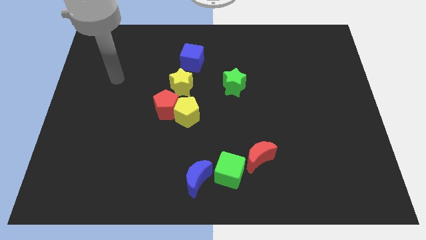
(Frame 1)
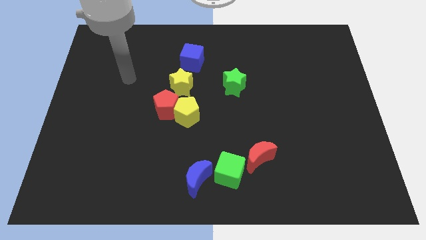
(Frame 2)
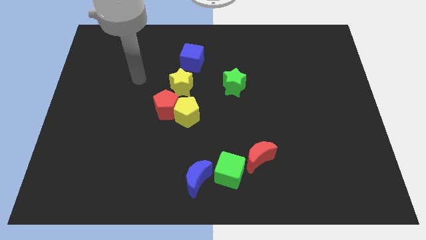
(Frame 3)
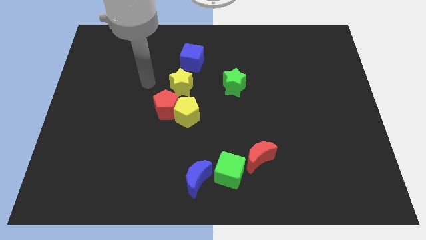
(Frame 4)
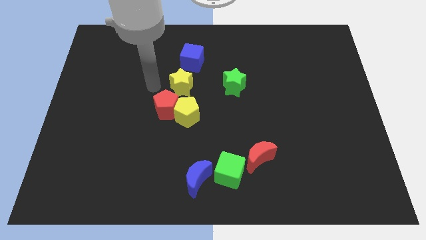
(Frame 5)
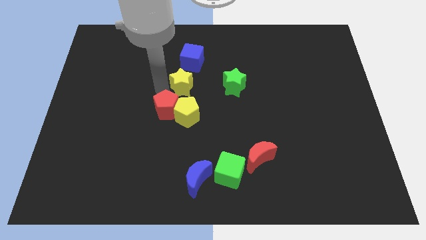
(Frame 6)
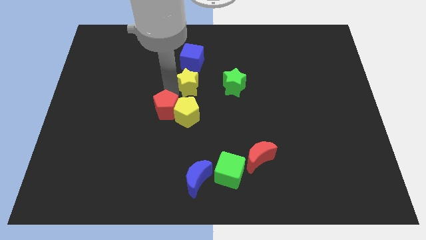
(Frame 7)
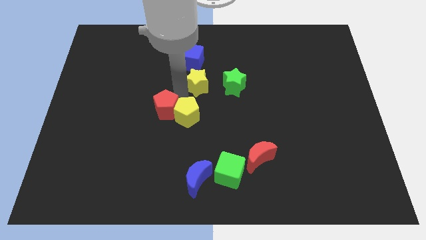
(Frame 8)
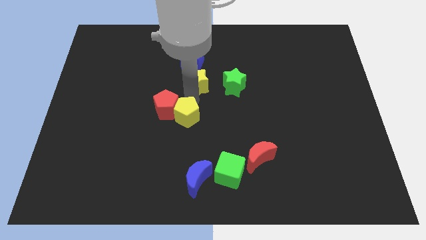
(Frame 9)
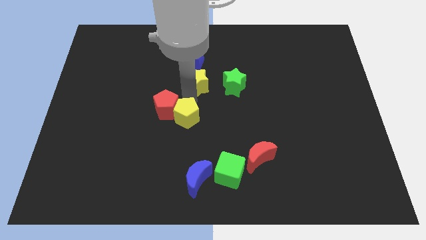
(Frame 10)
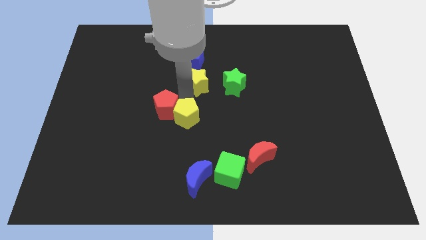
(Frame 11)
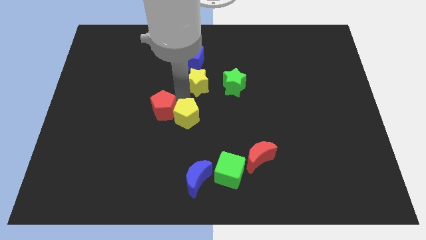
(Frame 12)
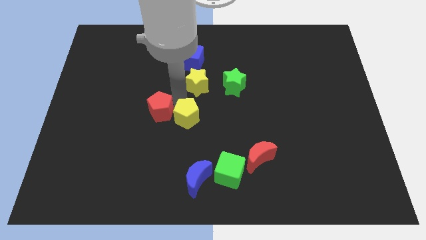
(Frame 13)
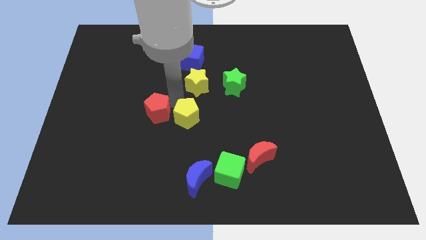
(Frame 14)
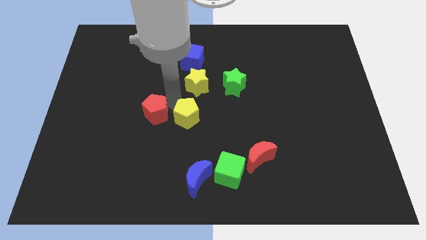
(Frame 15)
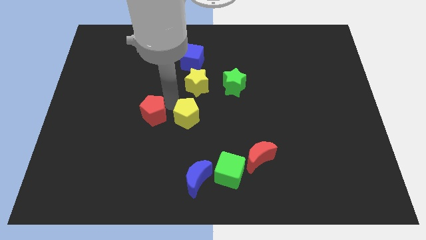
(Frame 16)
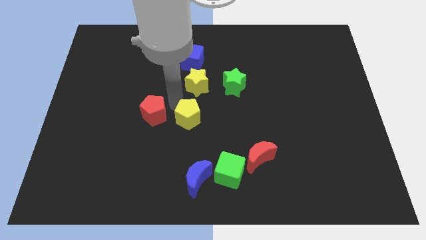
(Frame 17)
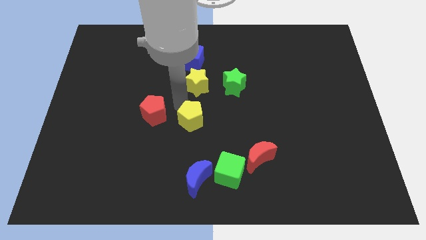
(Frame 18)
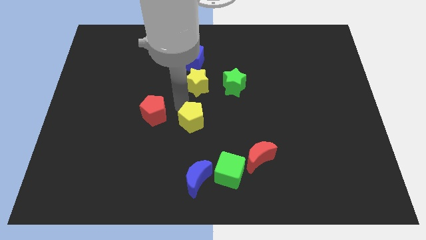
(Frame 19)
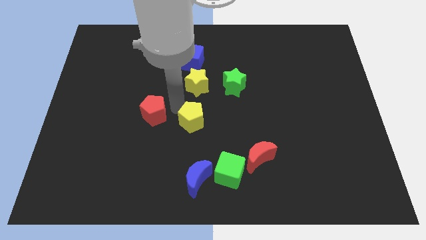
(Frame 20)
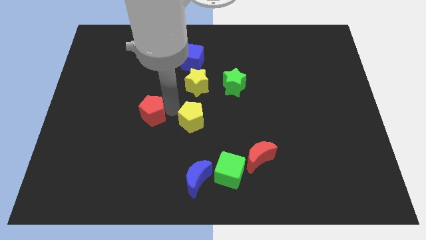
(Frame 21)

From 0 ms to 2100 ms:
pull the red pentagon apart from the yellow pentagon and yellow star

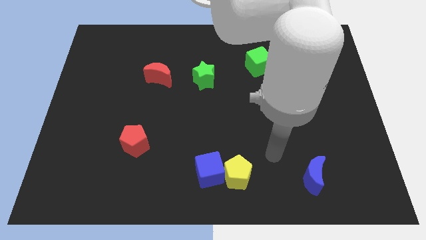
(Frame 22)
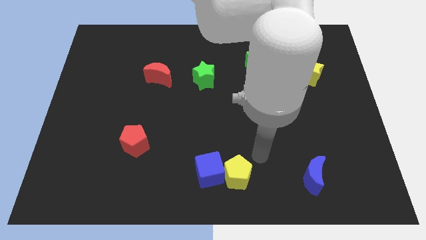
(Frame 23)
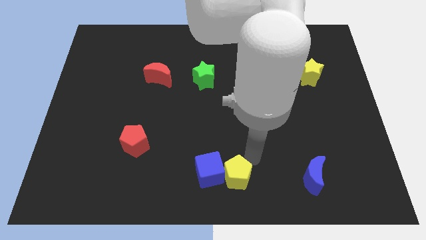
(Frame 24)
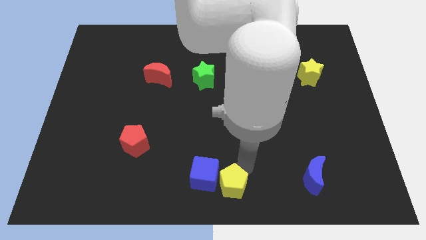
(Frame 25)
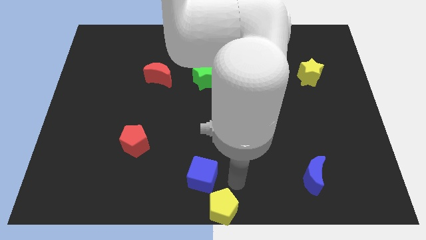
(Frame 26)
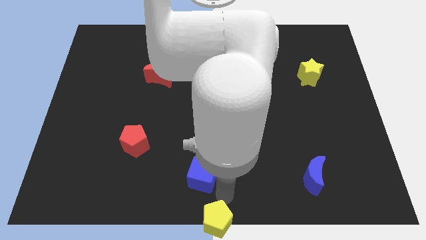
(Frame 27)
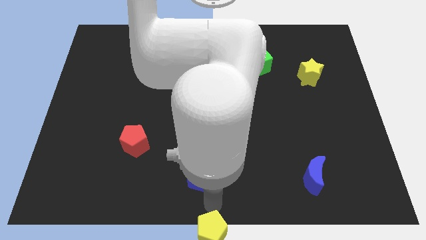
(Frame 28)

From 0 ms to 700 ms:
move the blue cube away from the yellow pentagon

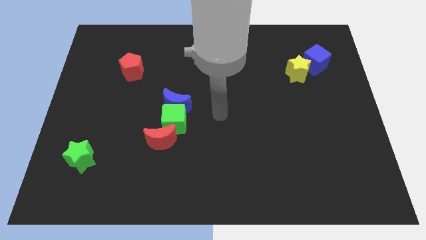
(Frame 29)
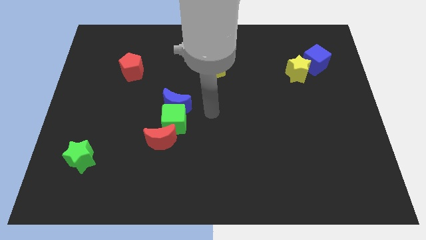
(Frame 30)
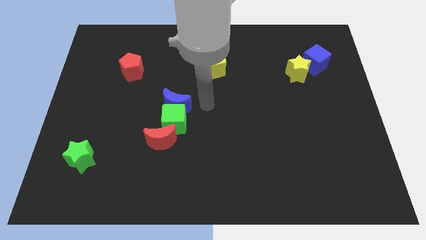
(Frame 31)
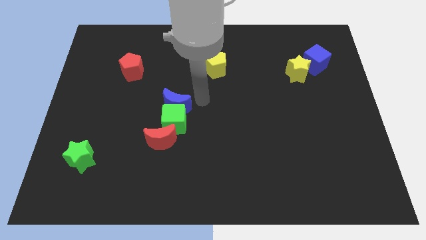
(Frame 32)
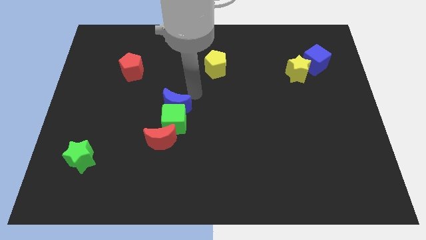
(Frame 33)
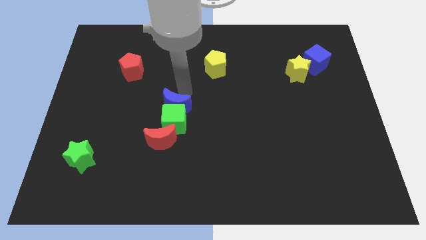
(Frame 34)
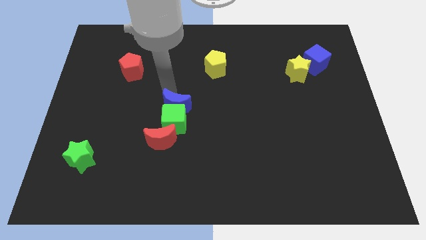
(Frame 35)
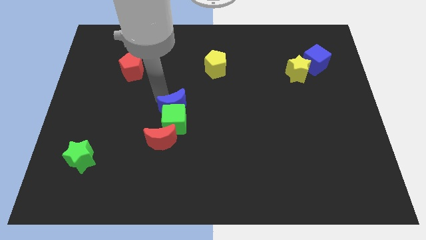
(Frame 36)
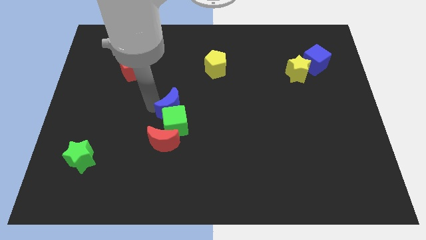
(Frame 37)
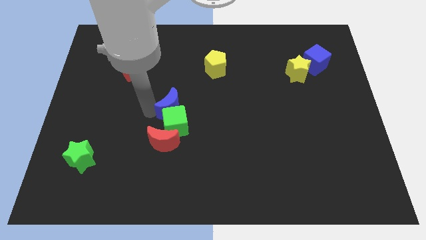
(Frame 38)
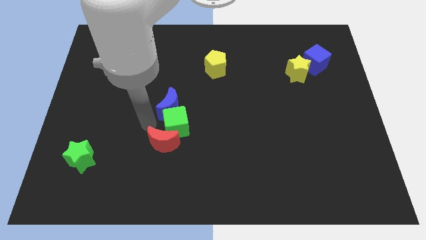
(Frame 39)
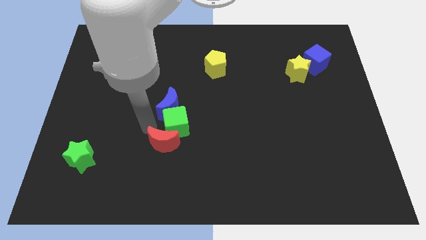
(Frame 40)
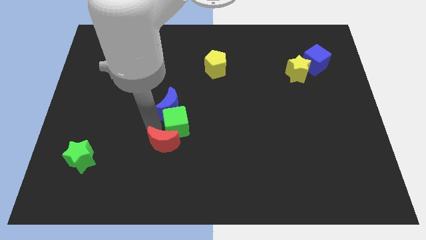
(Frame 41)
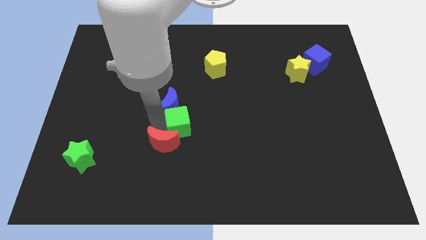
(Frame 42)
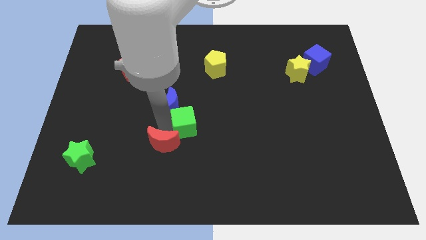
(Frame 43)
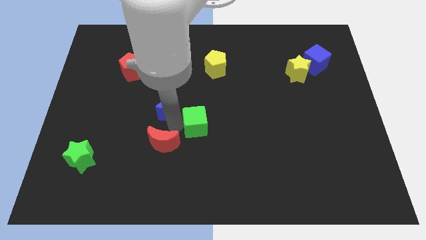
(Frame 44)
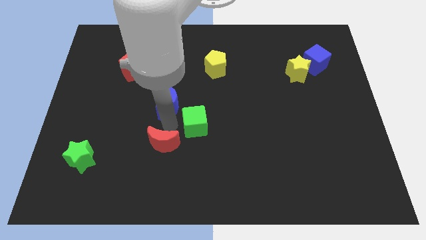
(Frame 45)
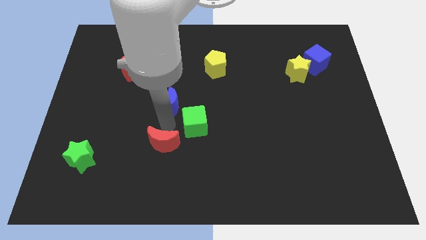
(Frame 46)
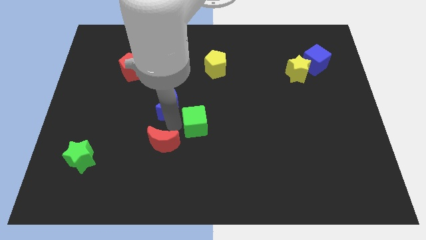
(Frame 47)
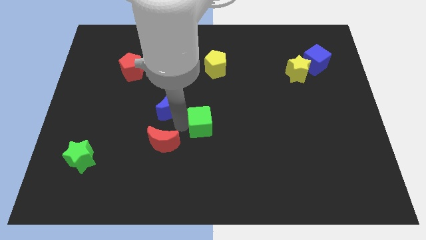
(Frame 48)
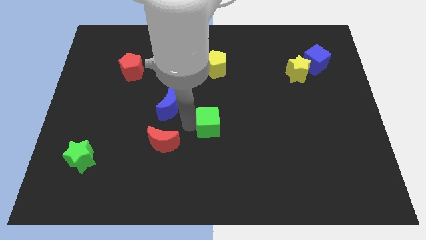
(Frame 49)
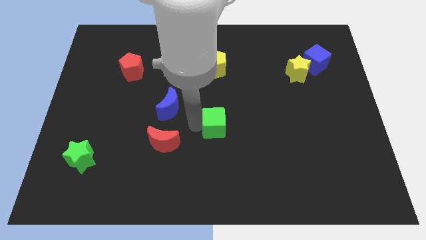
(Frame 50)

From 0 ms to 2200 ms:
move the green cube away from the blue moon and red moon

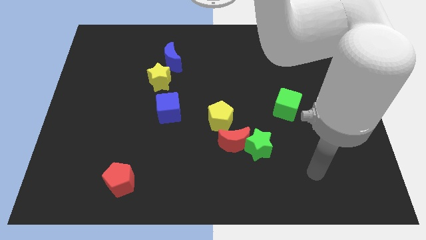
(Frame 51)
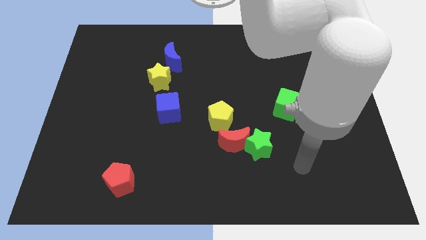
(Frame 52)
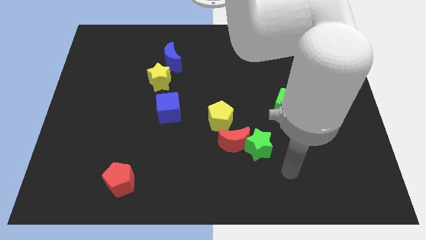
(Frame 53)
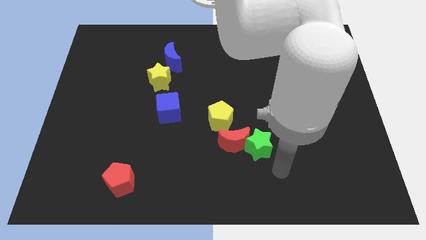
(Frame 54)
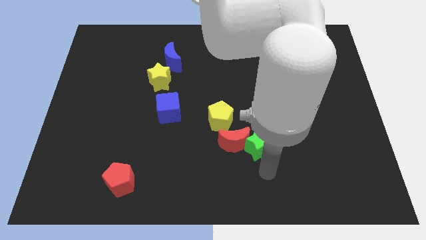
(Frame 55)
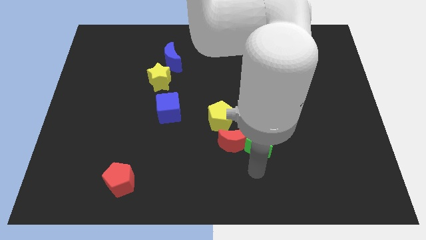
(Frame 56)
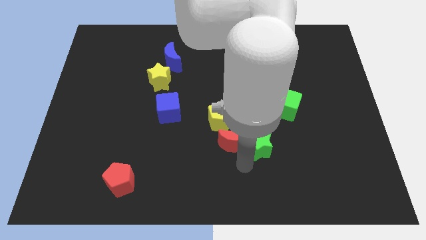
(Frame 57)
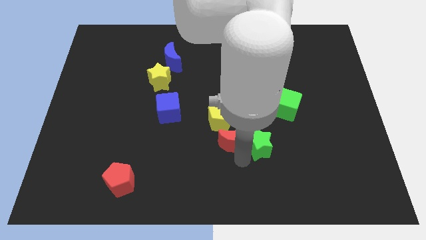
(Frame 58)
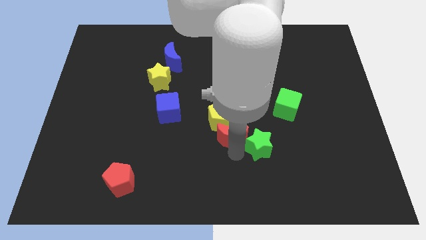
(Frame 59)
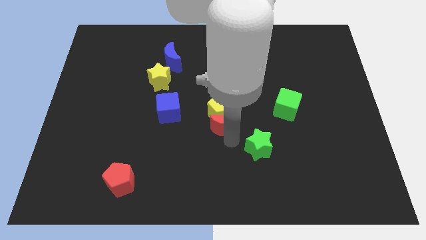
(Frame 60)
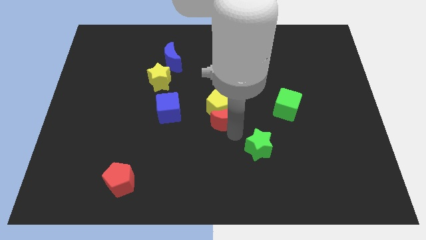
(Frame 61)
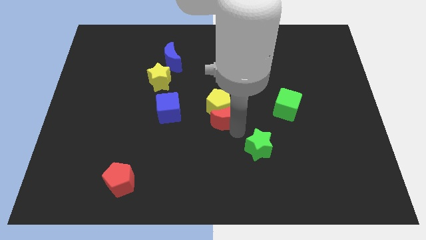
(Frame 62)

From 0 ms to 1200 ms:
move the green star away from the red moon

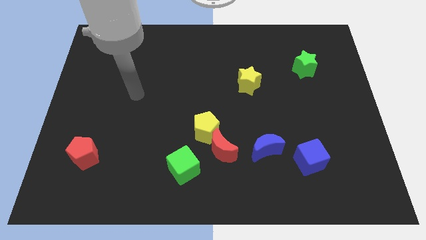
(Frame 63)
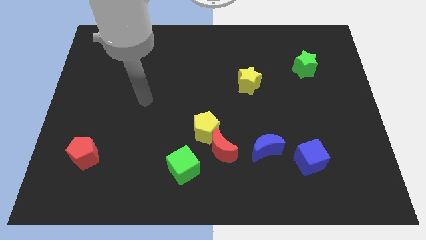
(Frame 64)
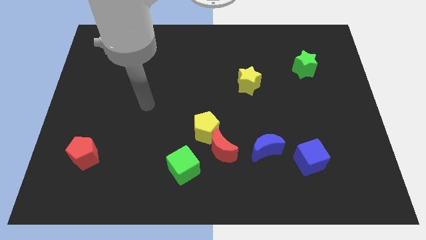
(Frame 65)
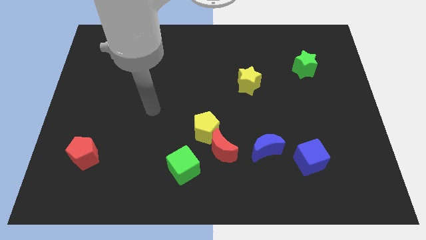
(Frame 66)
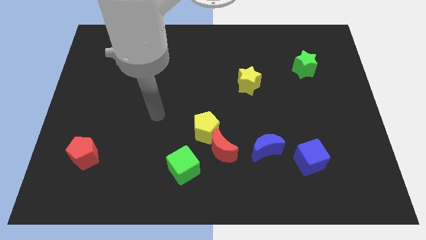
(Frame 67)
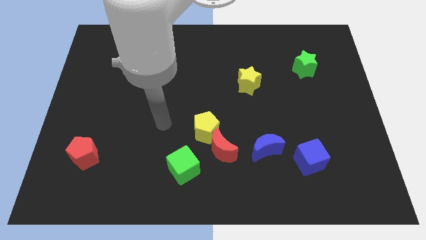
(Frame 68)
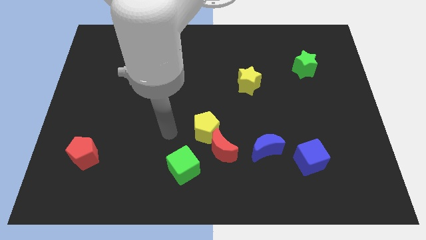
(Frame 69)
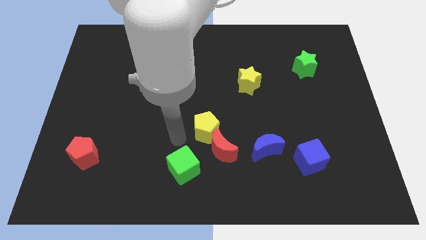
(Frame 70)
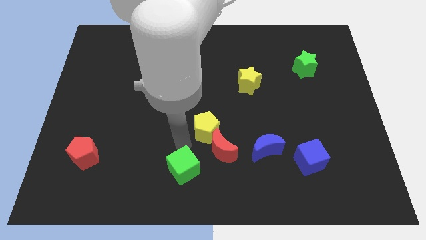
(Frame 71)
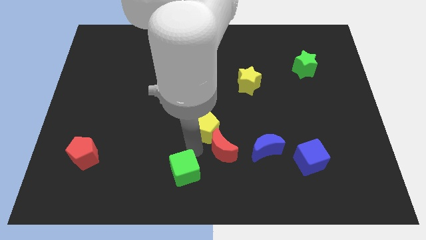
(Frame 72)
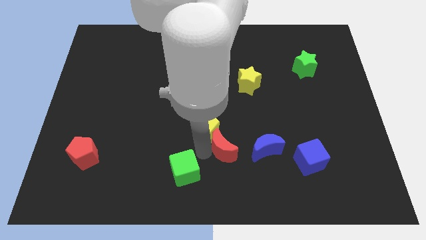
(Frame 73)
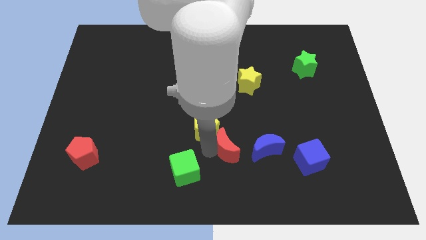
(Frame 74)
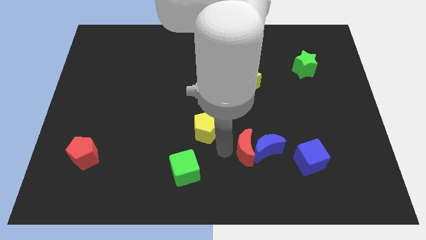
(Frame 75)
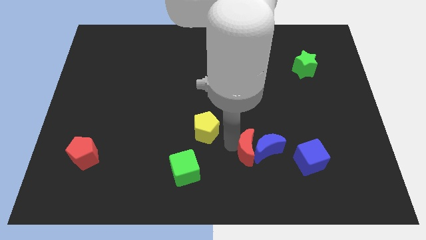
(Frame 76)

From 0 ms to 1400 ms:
pull the yellow pentagon apart from the red moon

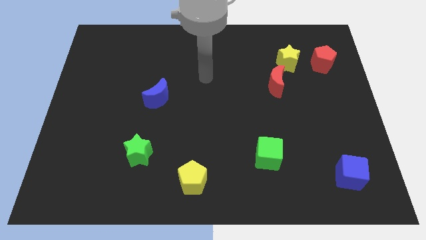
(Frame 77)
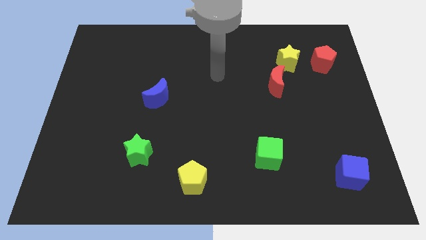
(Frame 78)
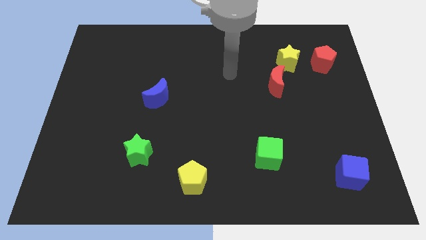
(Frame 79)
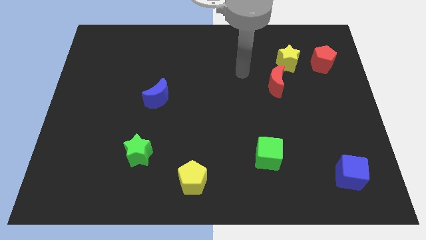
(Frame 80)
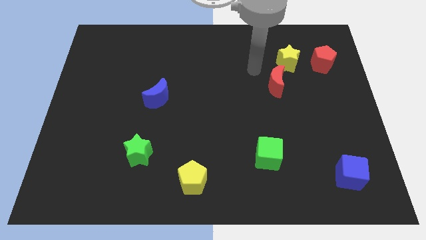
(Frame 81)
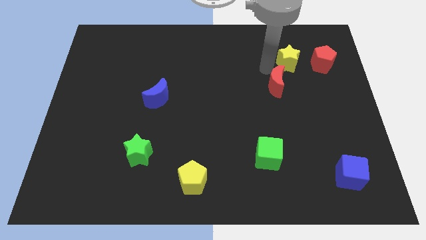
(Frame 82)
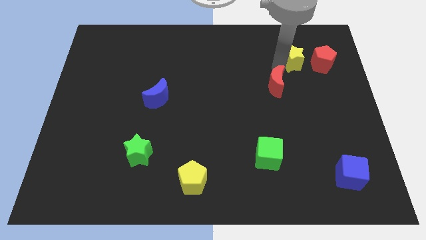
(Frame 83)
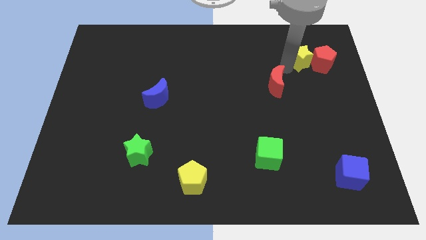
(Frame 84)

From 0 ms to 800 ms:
move the red moon away from the yellow star

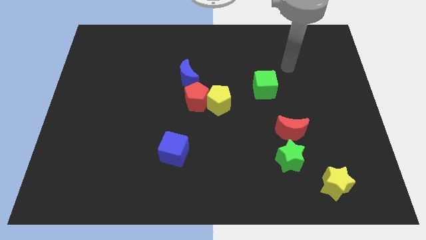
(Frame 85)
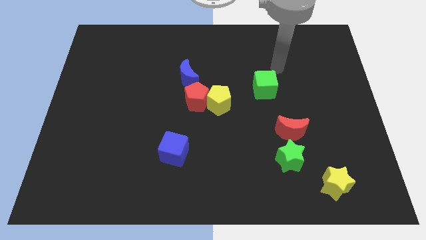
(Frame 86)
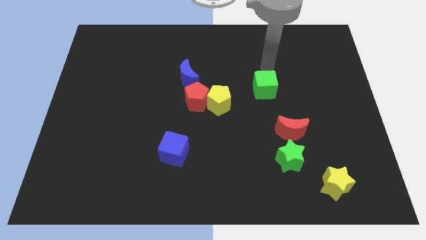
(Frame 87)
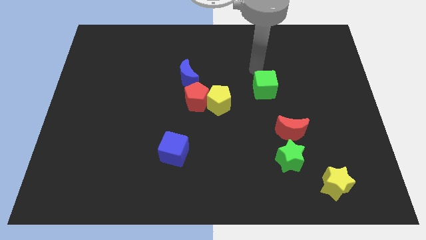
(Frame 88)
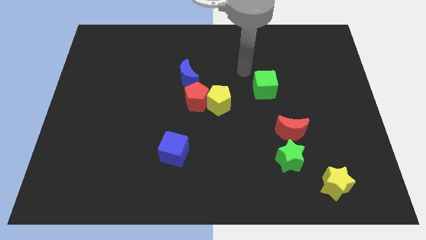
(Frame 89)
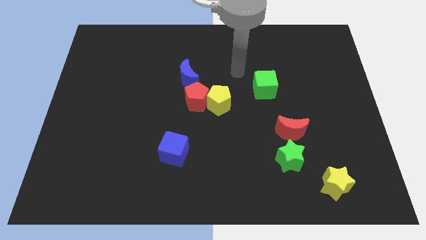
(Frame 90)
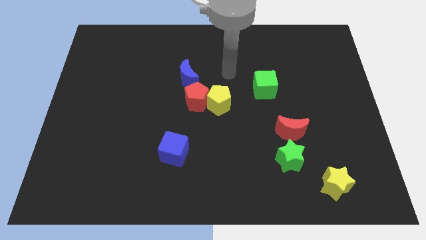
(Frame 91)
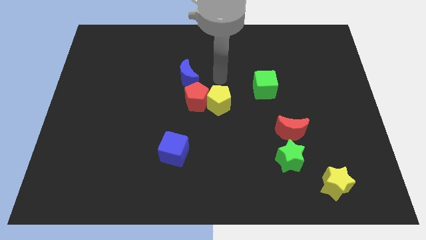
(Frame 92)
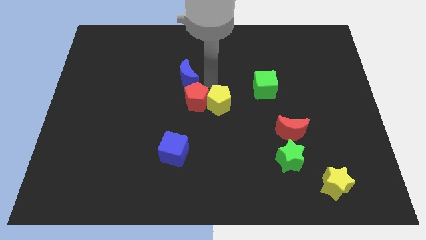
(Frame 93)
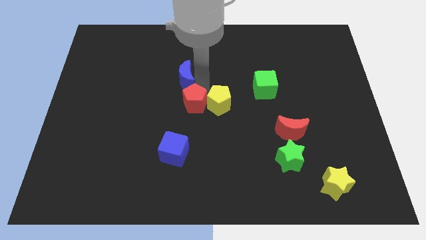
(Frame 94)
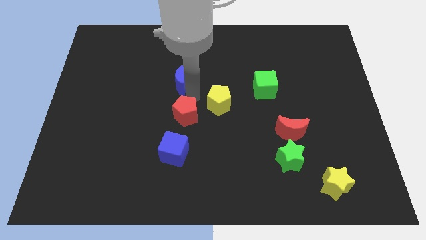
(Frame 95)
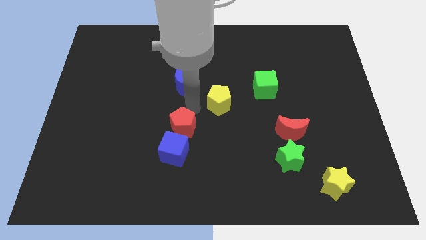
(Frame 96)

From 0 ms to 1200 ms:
pull the yellow pentagon apart from the red pentagon
